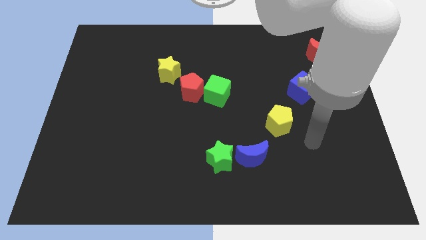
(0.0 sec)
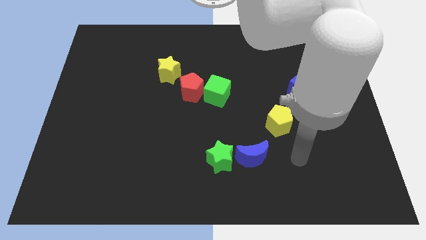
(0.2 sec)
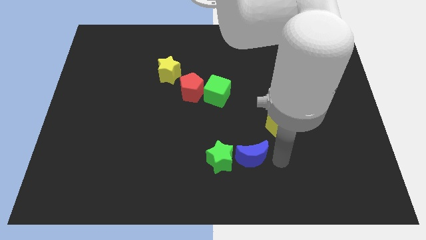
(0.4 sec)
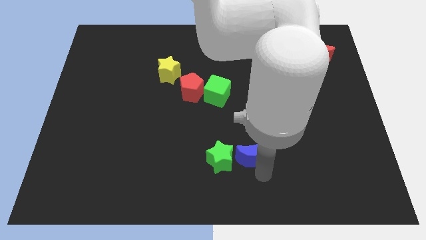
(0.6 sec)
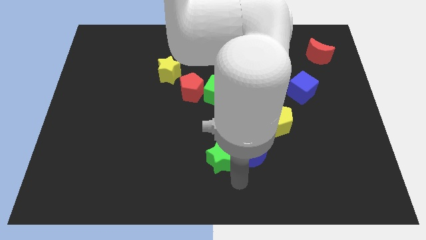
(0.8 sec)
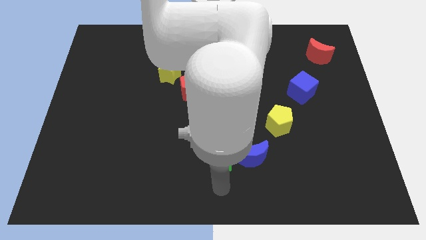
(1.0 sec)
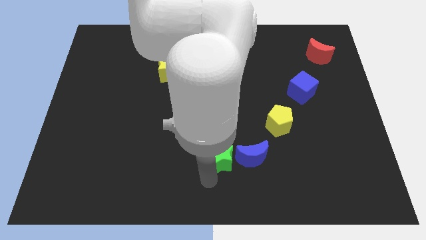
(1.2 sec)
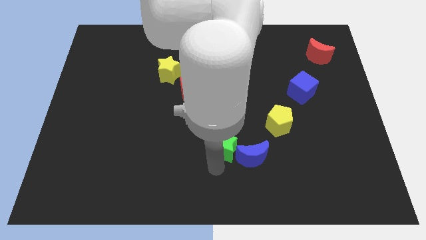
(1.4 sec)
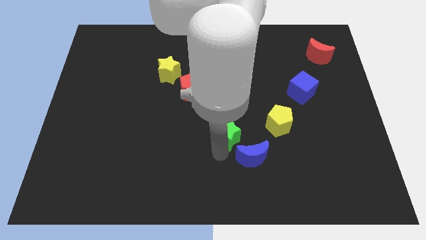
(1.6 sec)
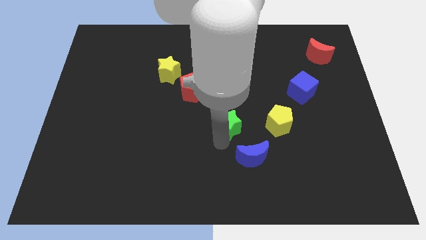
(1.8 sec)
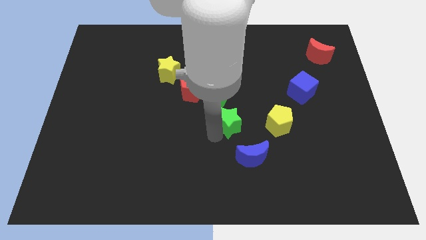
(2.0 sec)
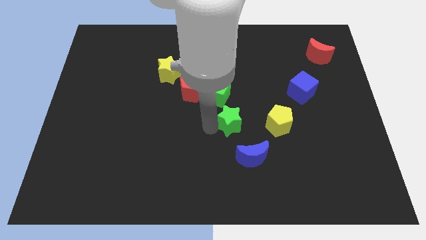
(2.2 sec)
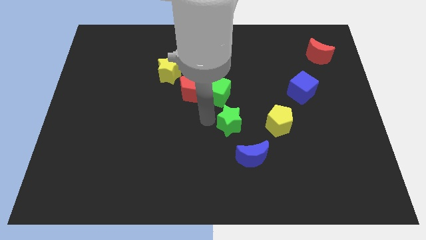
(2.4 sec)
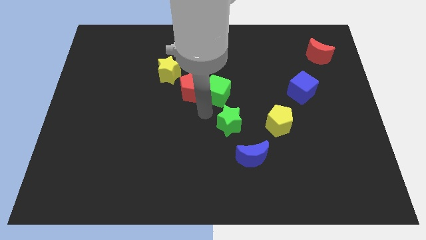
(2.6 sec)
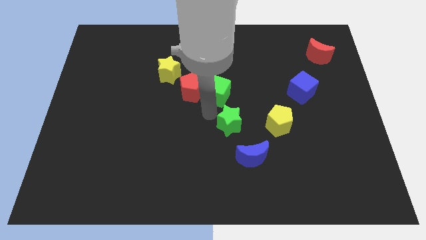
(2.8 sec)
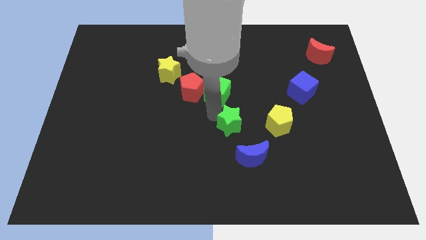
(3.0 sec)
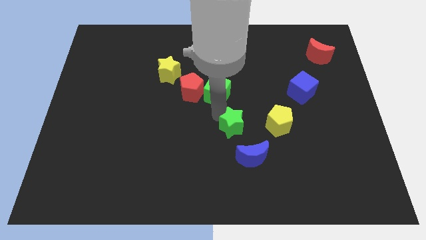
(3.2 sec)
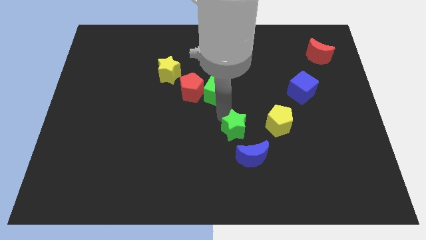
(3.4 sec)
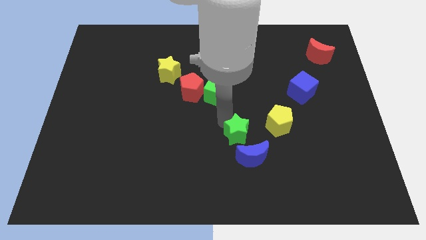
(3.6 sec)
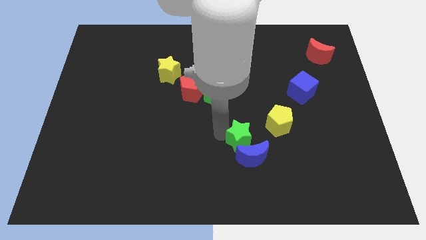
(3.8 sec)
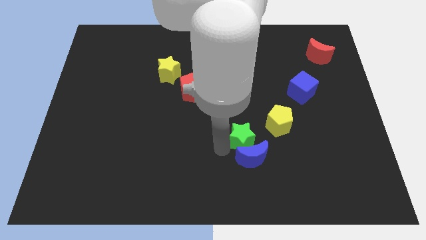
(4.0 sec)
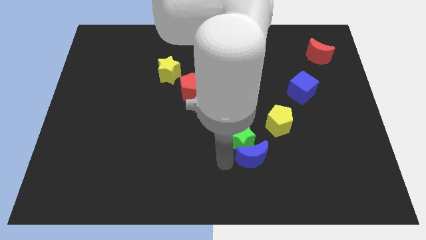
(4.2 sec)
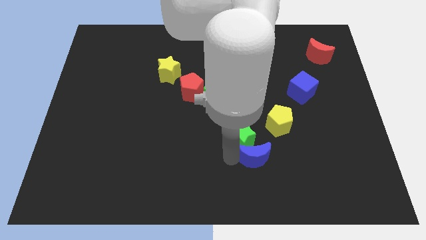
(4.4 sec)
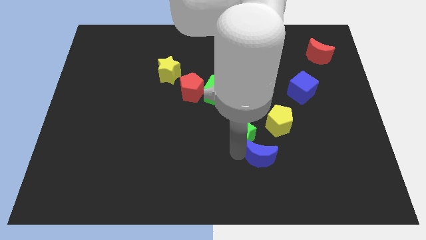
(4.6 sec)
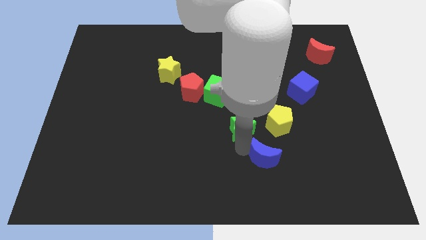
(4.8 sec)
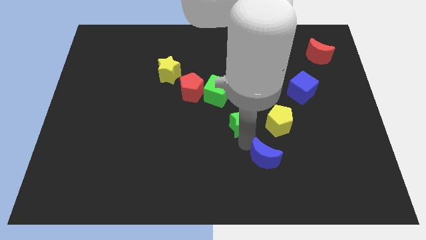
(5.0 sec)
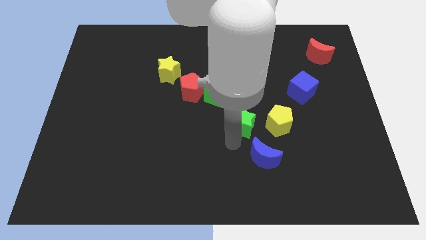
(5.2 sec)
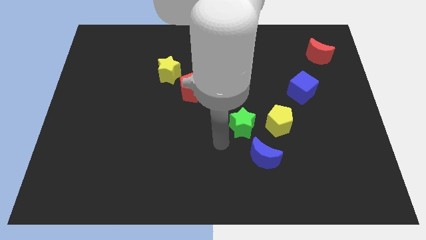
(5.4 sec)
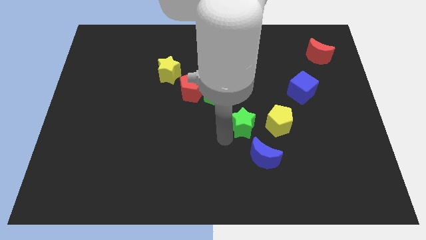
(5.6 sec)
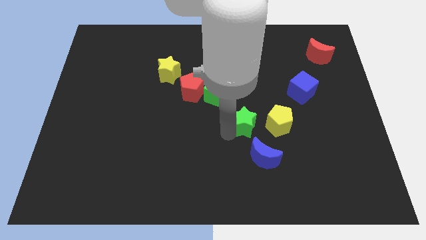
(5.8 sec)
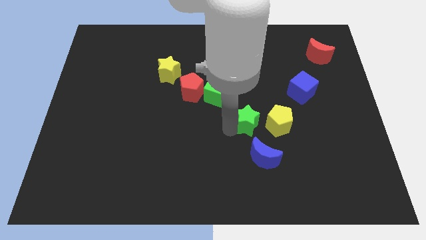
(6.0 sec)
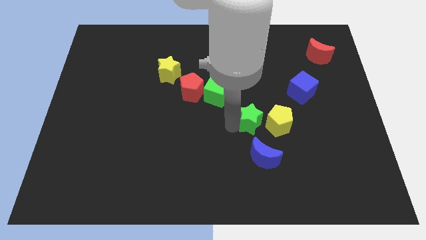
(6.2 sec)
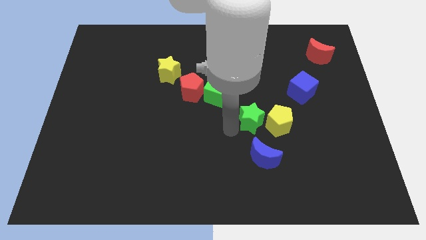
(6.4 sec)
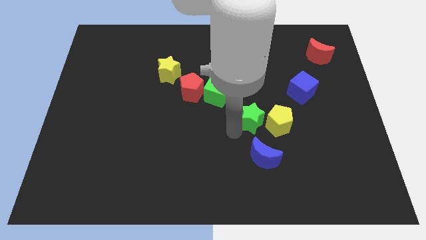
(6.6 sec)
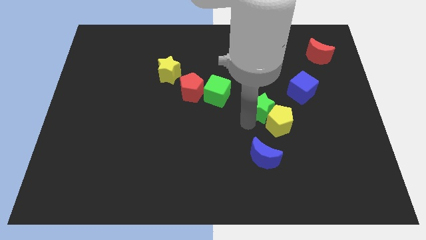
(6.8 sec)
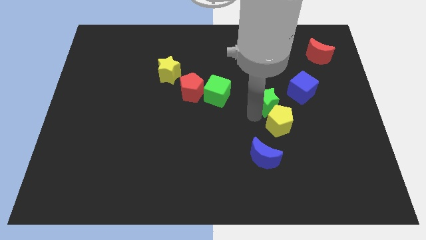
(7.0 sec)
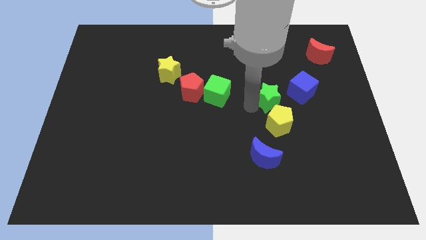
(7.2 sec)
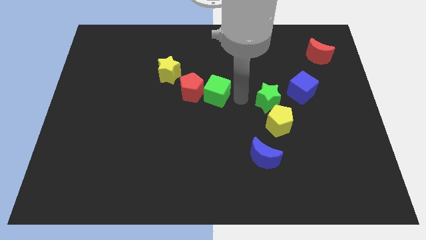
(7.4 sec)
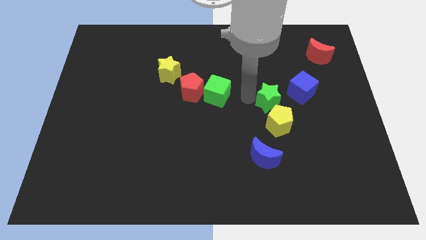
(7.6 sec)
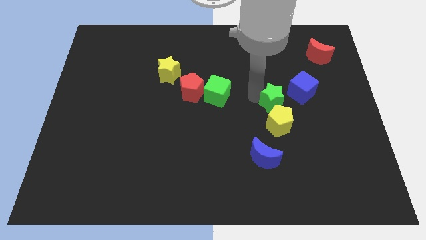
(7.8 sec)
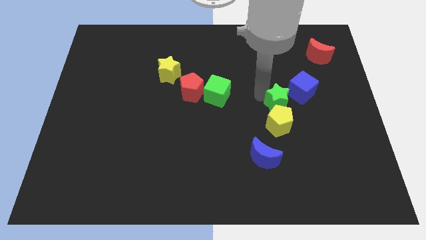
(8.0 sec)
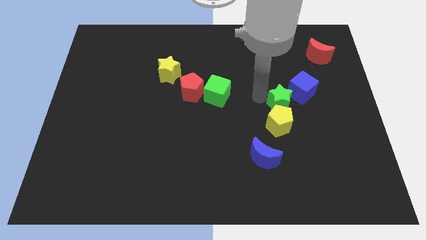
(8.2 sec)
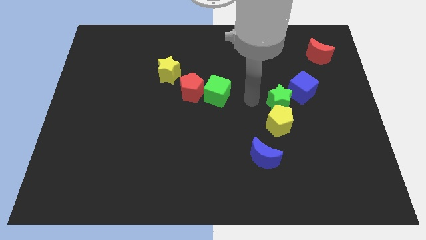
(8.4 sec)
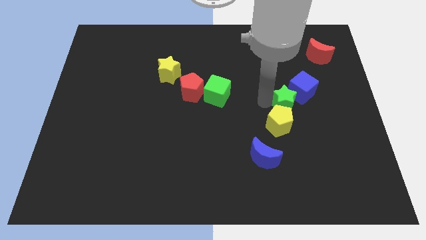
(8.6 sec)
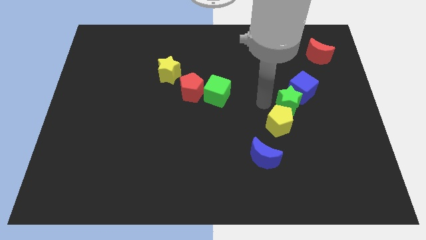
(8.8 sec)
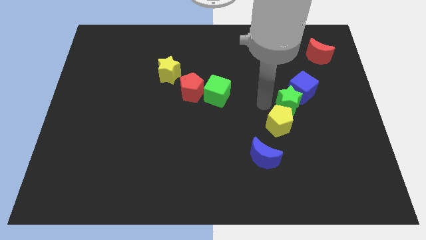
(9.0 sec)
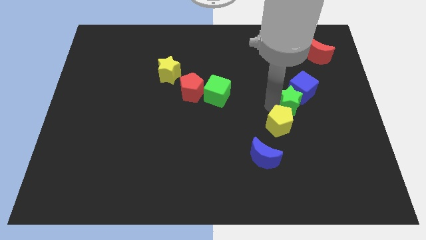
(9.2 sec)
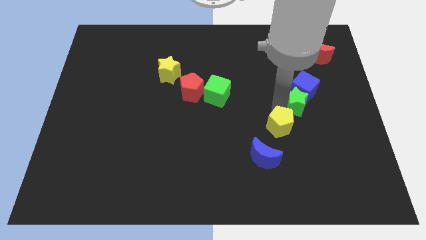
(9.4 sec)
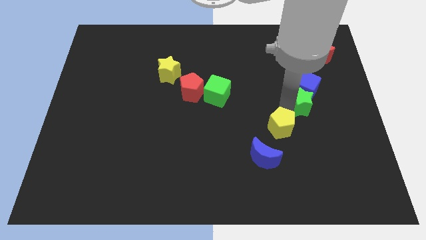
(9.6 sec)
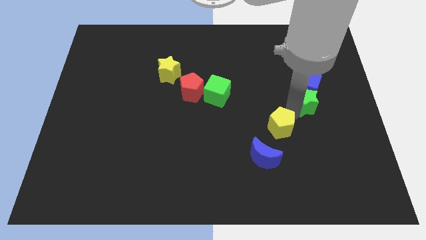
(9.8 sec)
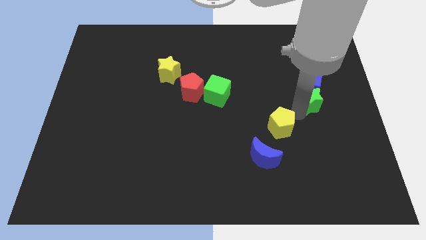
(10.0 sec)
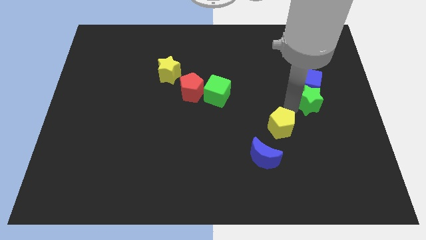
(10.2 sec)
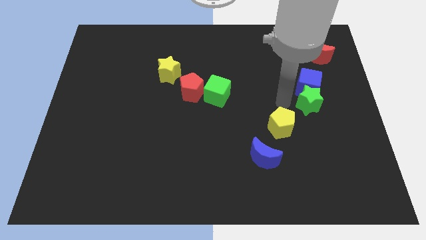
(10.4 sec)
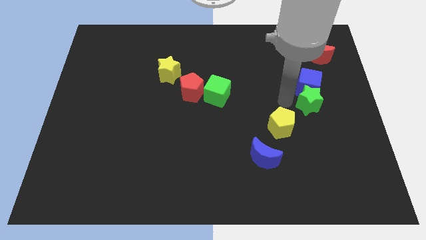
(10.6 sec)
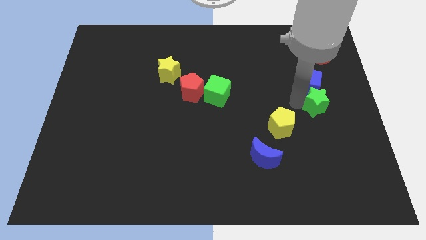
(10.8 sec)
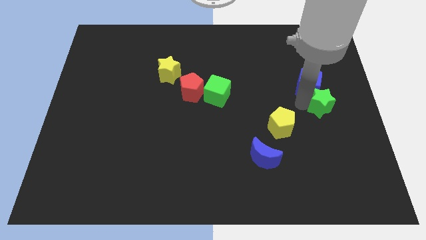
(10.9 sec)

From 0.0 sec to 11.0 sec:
slide the green star to the right side
